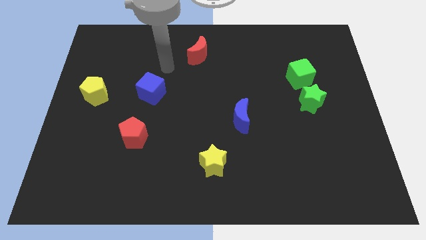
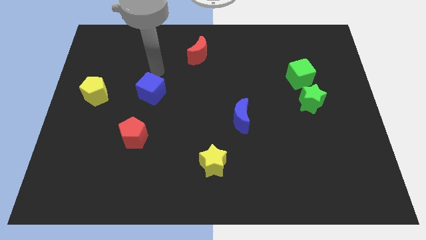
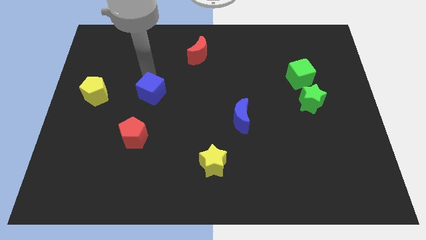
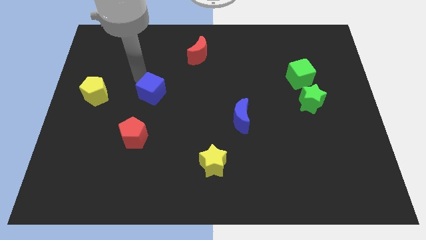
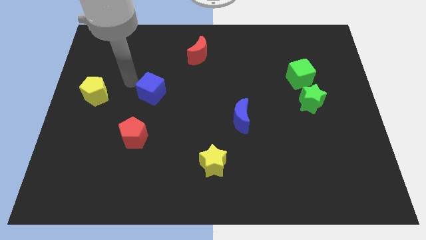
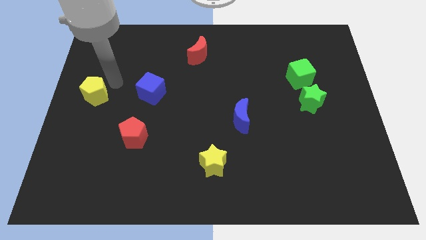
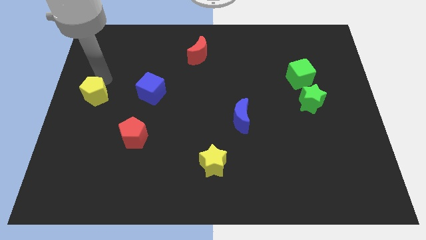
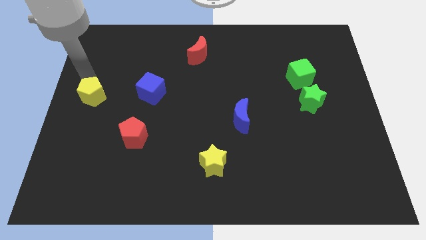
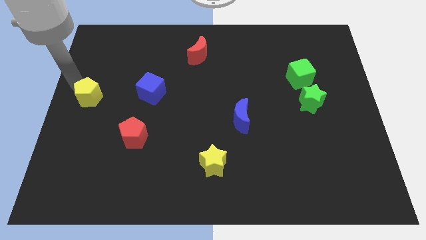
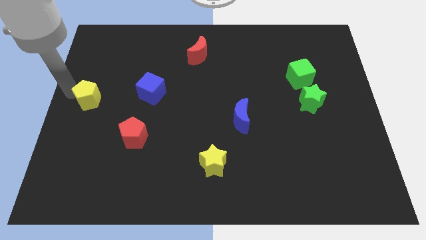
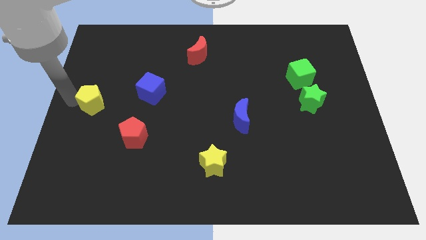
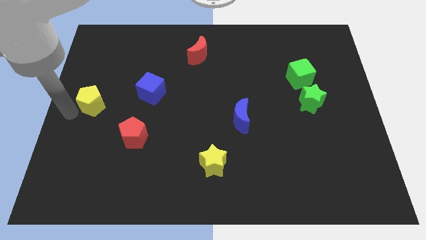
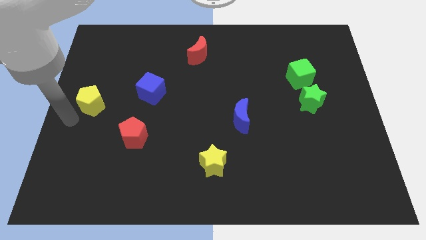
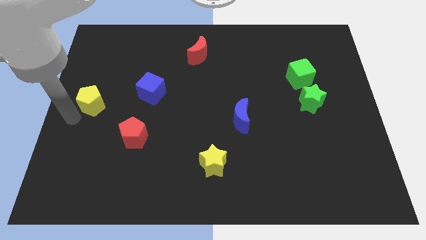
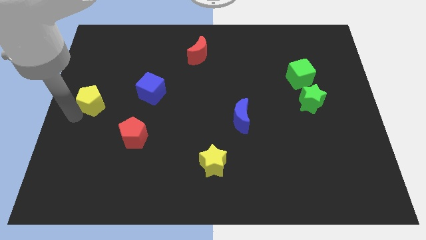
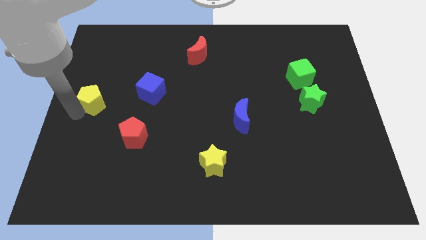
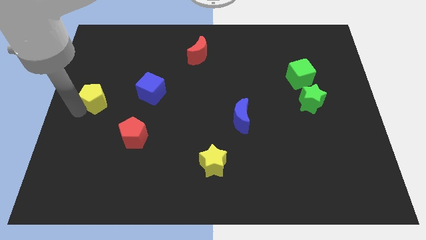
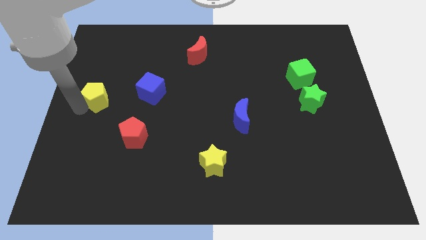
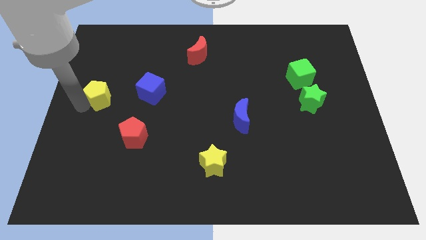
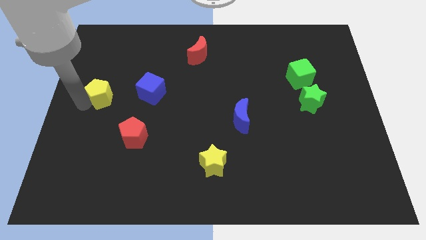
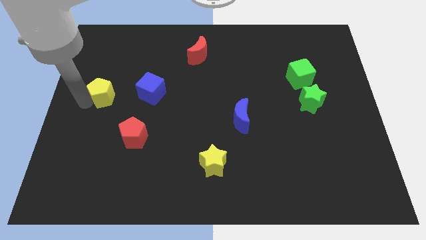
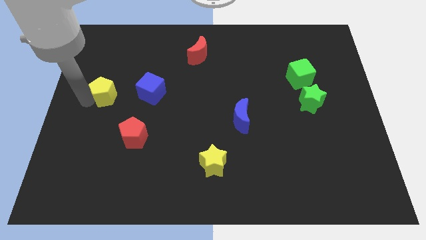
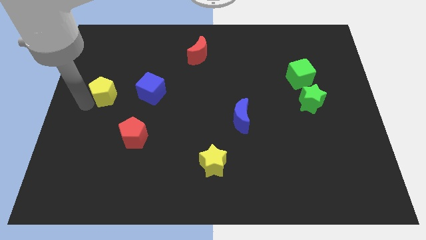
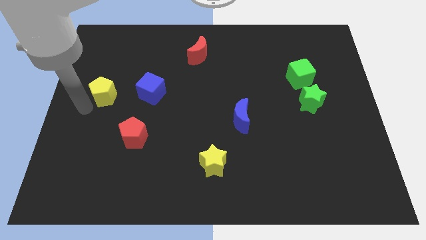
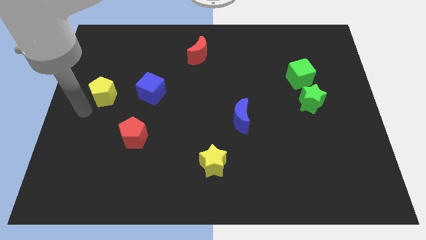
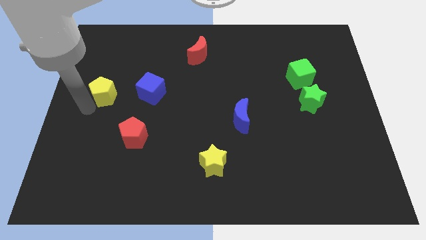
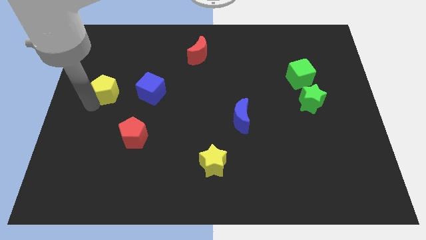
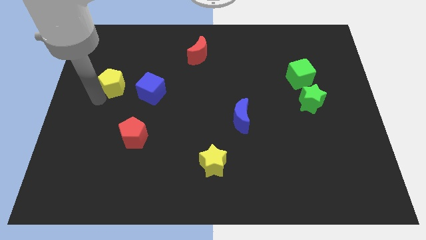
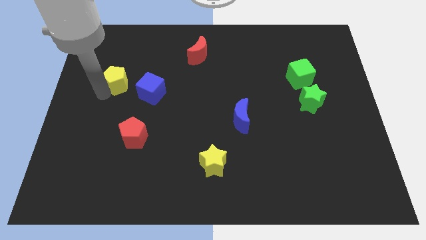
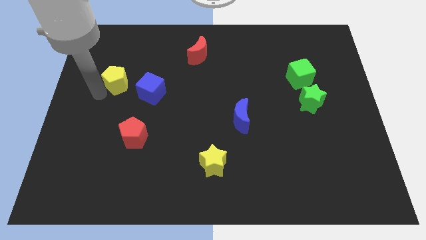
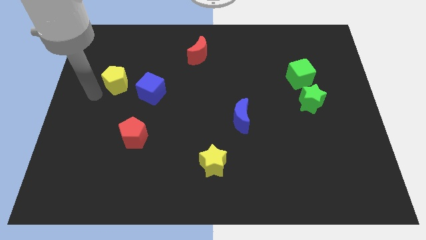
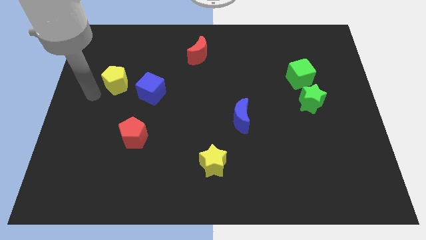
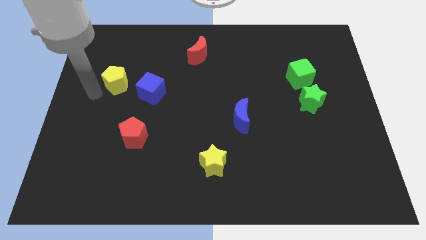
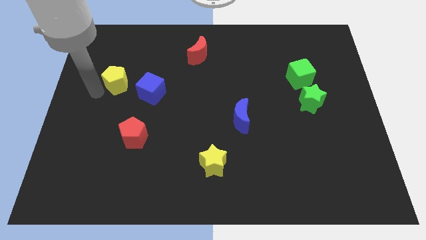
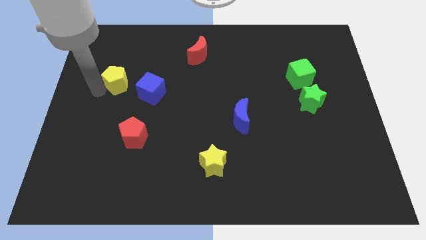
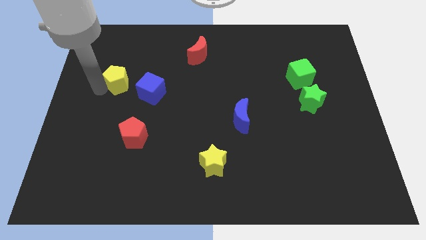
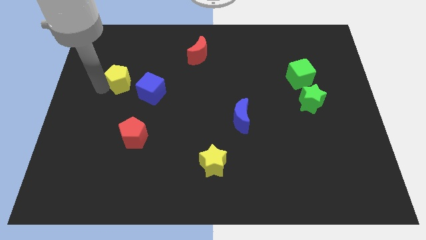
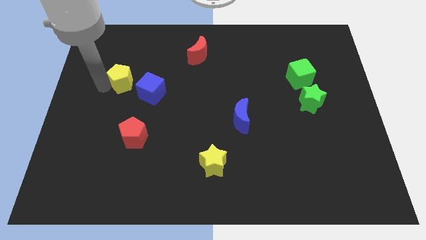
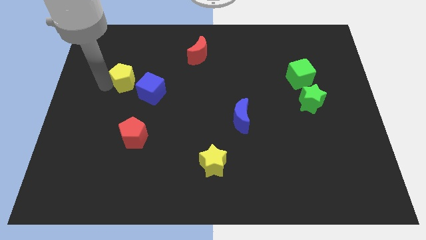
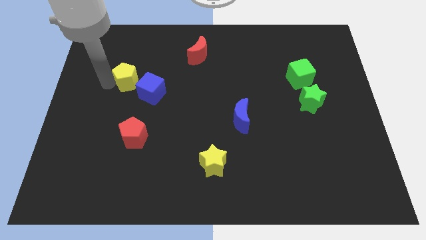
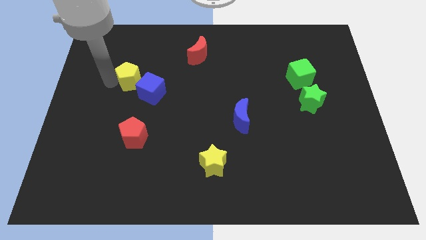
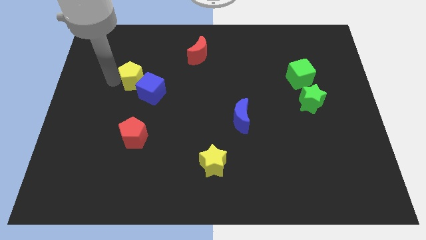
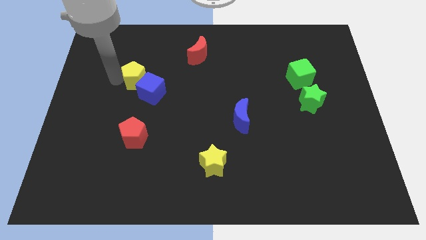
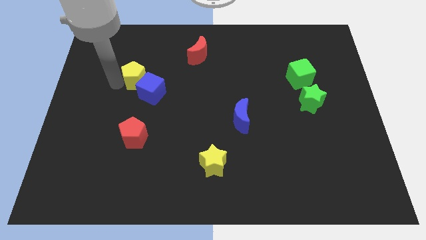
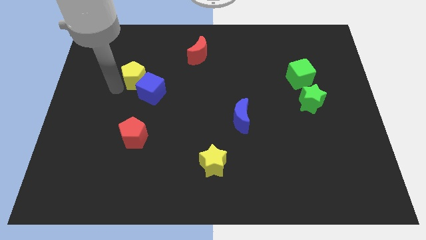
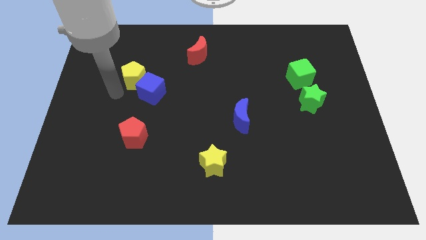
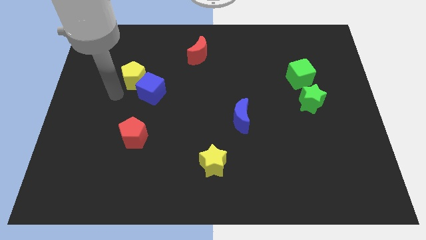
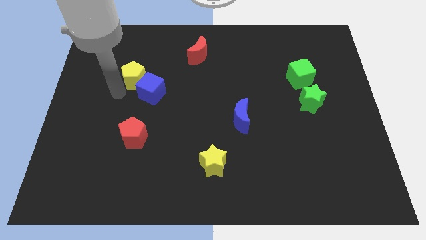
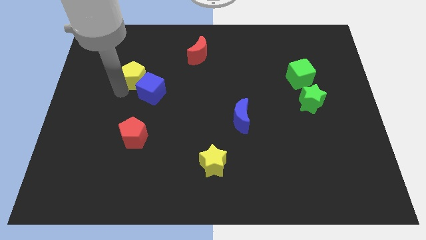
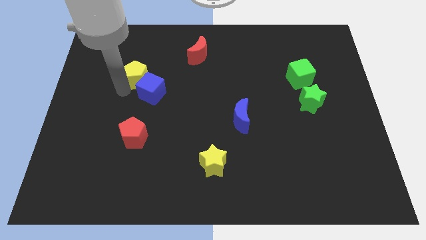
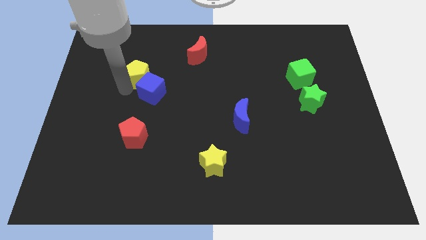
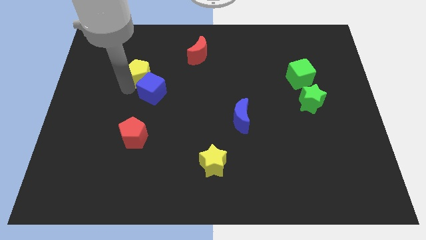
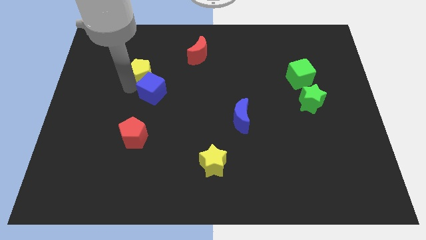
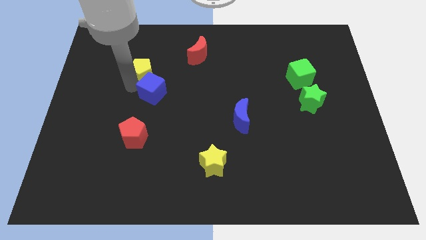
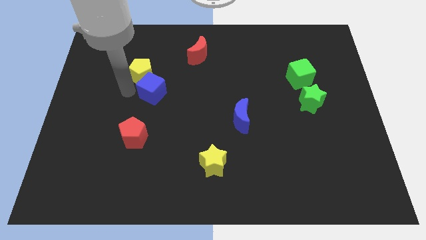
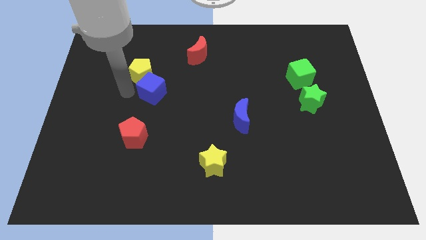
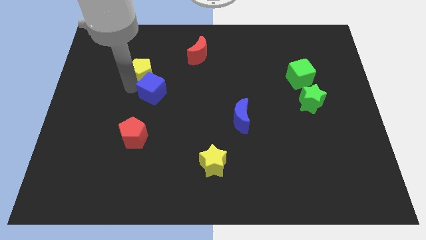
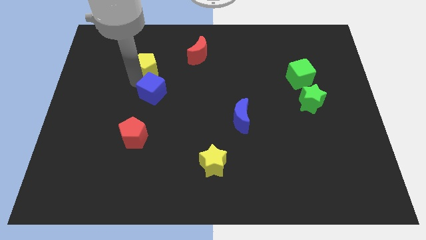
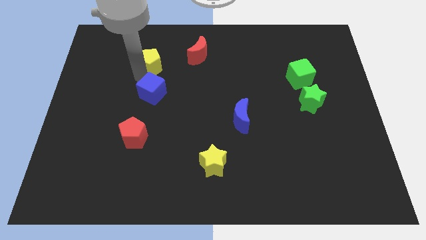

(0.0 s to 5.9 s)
slide the yellow pentagon just left of the red moon
